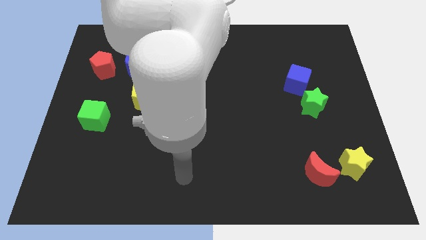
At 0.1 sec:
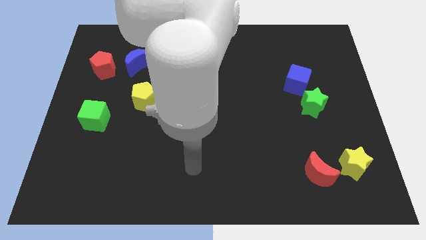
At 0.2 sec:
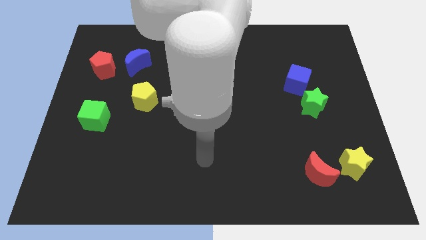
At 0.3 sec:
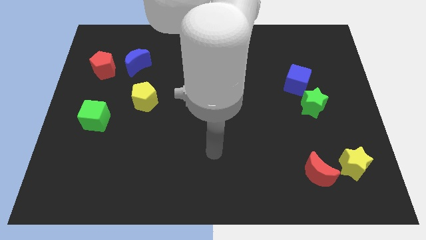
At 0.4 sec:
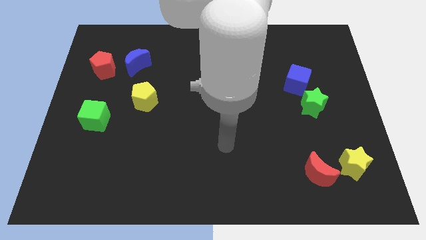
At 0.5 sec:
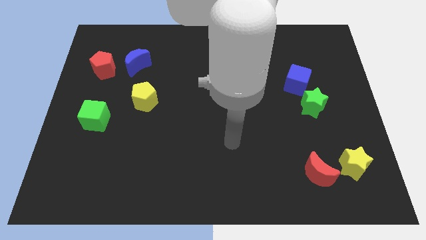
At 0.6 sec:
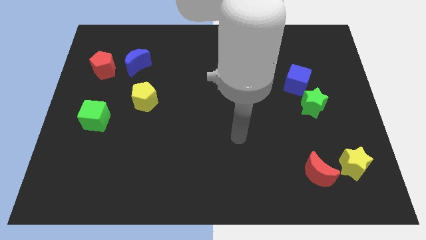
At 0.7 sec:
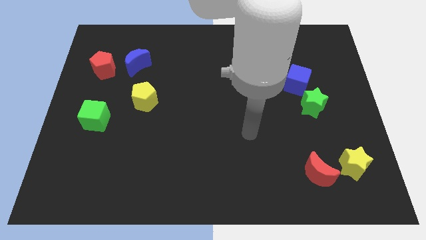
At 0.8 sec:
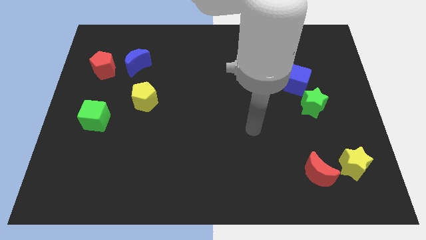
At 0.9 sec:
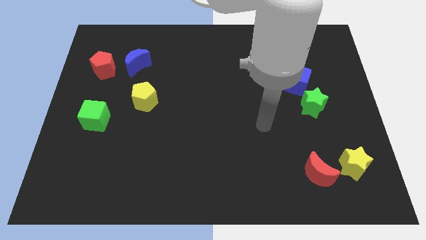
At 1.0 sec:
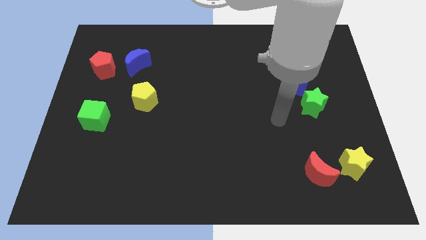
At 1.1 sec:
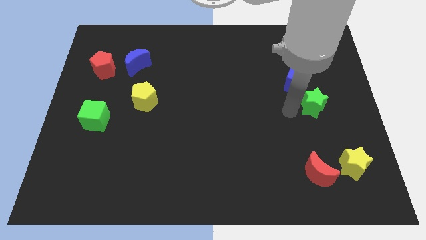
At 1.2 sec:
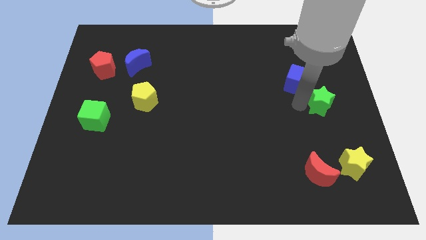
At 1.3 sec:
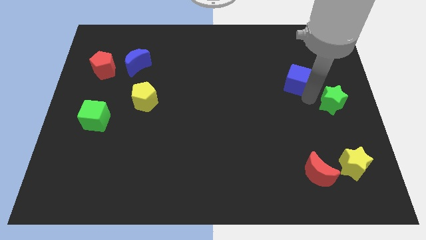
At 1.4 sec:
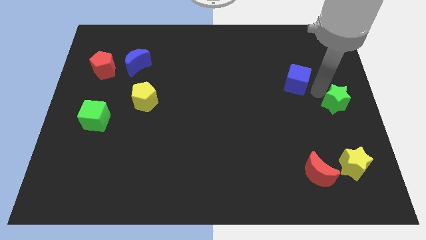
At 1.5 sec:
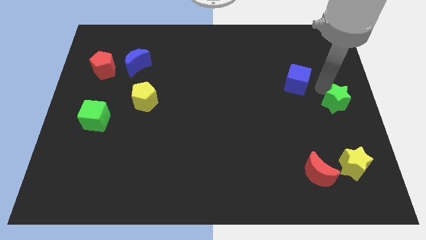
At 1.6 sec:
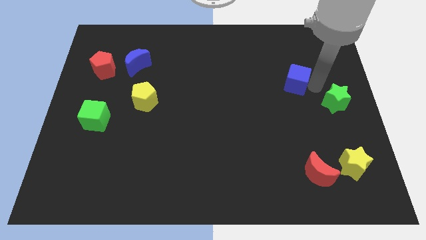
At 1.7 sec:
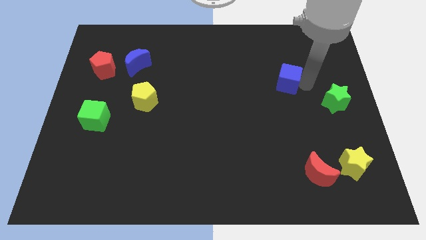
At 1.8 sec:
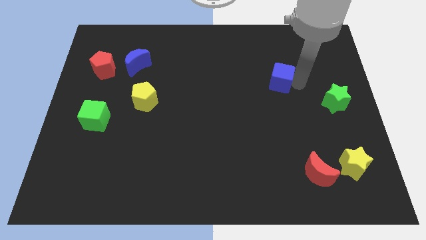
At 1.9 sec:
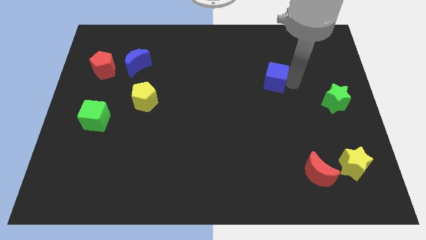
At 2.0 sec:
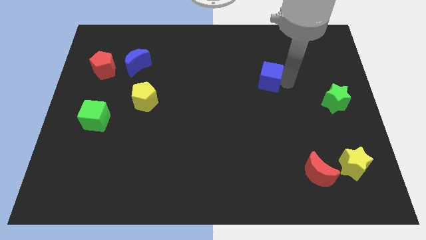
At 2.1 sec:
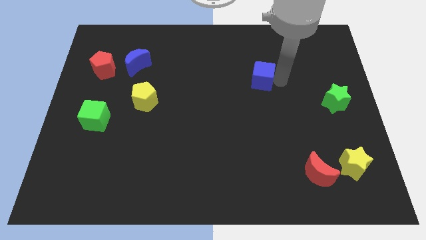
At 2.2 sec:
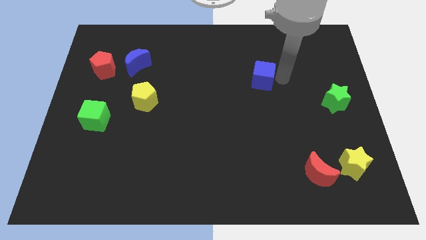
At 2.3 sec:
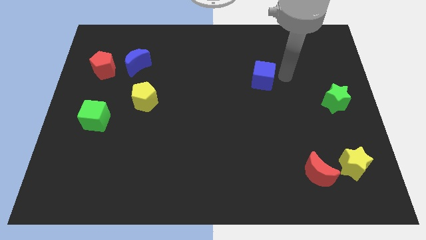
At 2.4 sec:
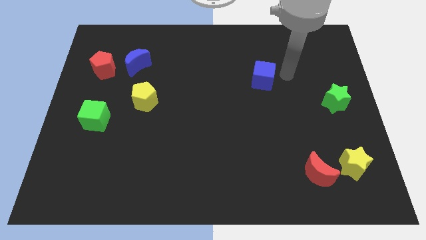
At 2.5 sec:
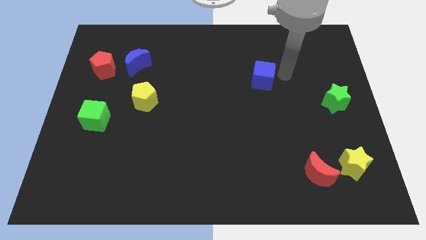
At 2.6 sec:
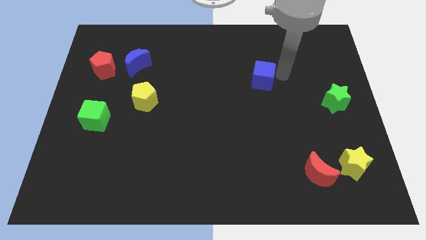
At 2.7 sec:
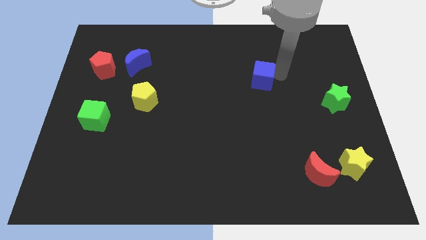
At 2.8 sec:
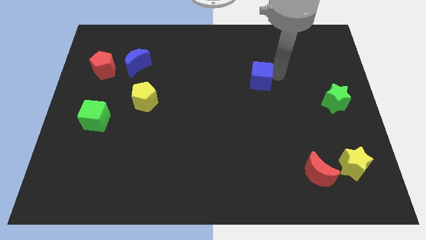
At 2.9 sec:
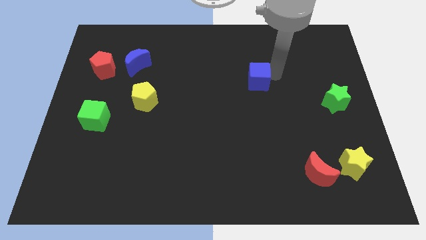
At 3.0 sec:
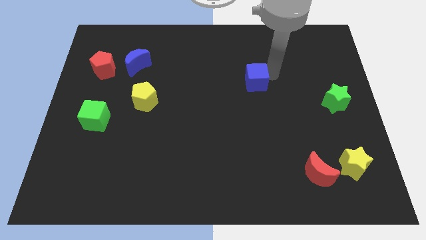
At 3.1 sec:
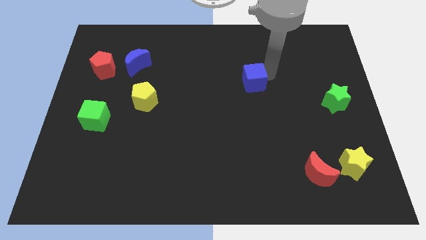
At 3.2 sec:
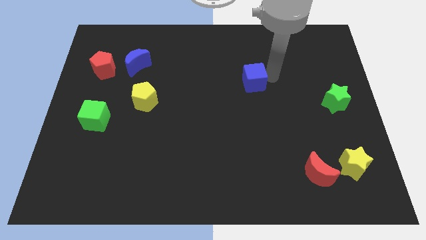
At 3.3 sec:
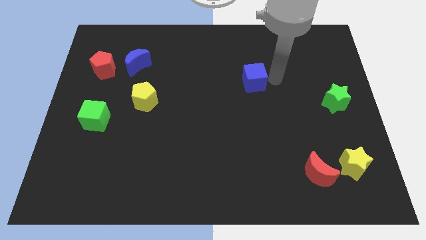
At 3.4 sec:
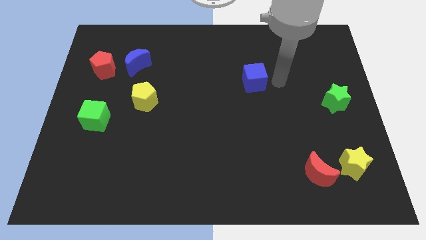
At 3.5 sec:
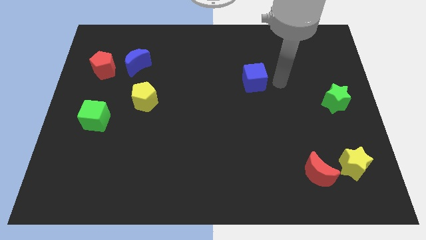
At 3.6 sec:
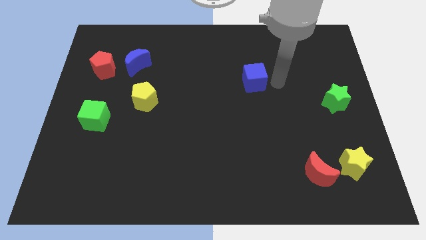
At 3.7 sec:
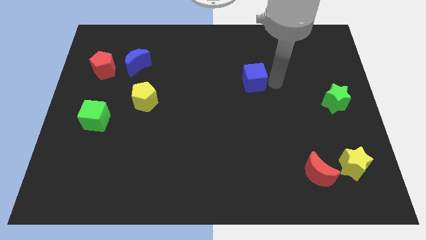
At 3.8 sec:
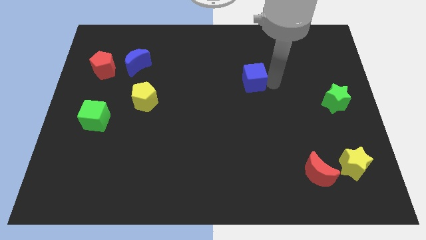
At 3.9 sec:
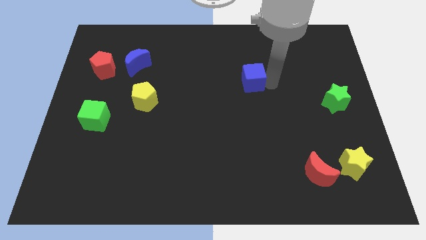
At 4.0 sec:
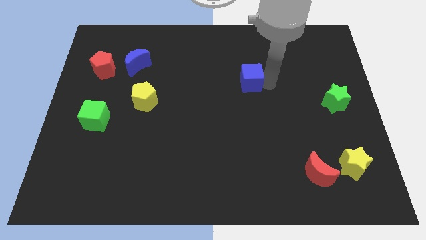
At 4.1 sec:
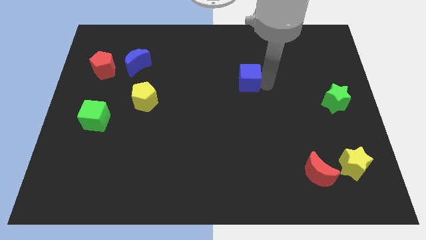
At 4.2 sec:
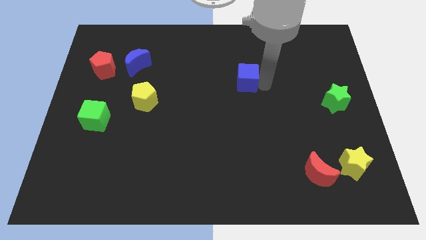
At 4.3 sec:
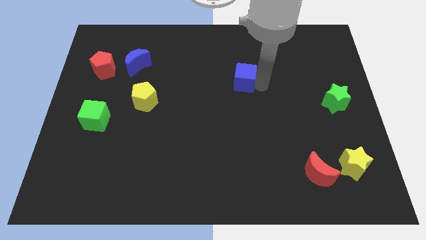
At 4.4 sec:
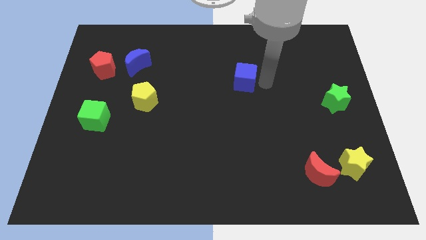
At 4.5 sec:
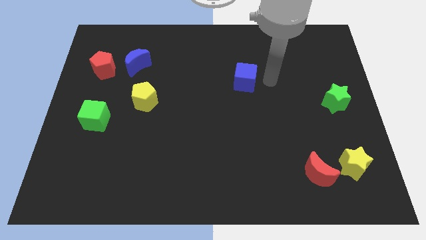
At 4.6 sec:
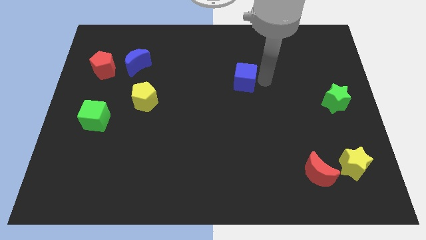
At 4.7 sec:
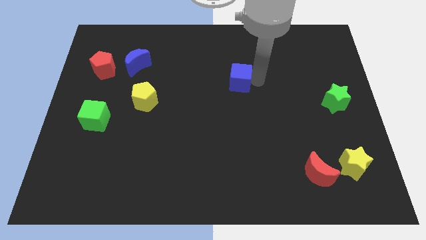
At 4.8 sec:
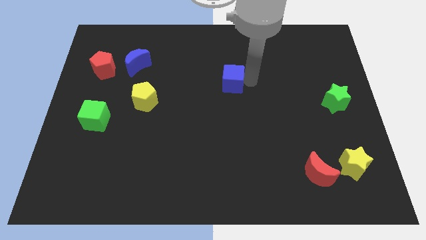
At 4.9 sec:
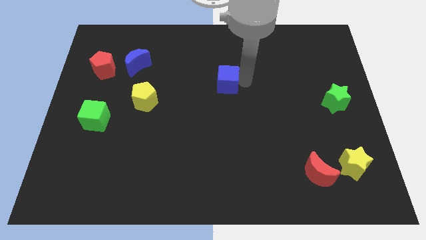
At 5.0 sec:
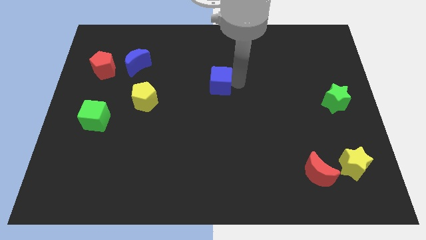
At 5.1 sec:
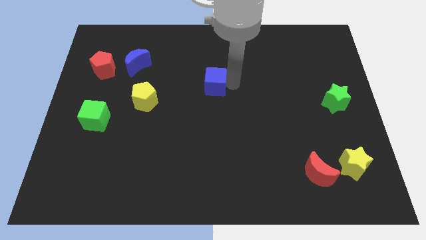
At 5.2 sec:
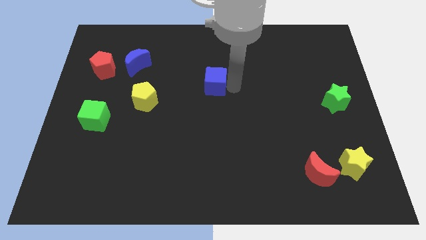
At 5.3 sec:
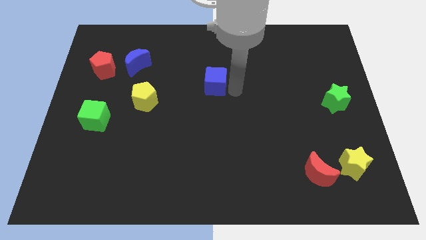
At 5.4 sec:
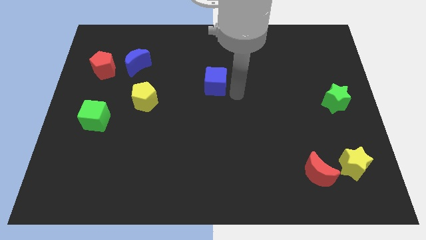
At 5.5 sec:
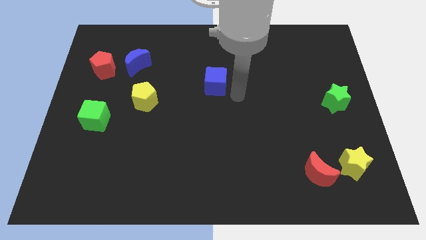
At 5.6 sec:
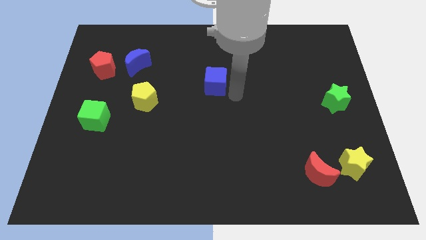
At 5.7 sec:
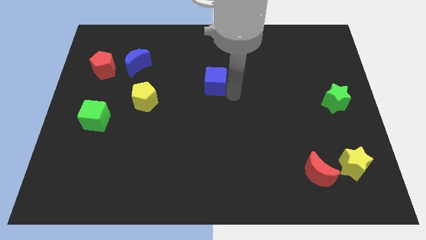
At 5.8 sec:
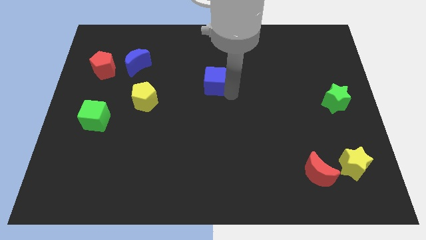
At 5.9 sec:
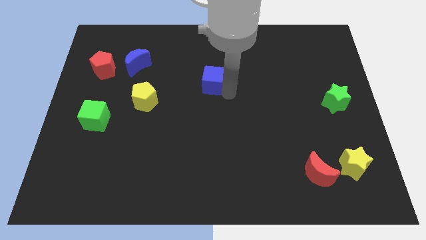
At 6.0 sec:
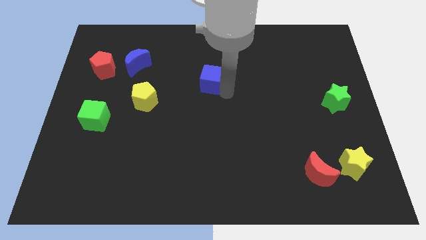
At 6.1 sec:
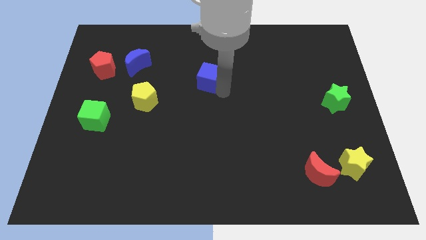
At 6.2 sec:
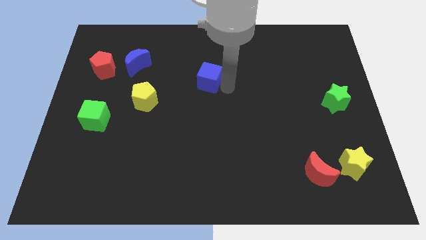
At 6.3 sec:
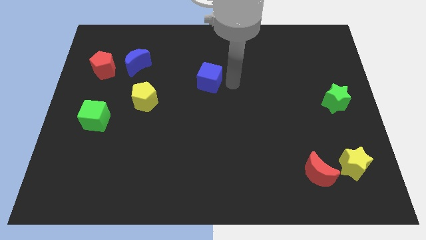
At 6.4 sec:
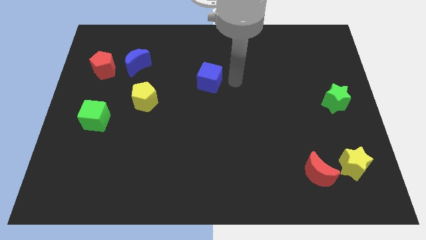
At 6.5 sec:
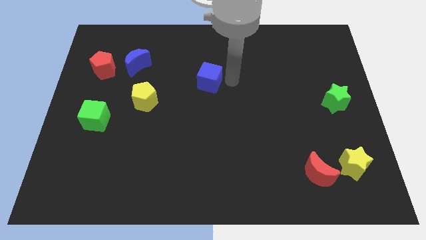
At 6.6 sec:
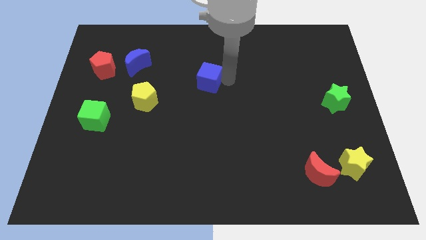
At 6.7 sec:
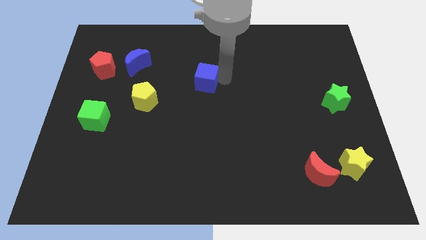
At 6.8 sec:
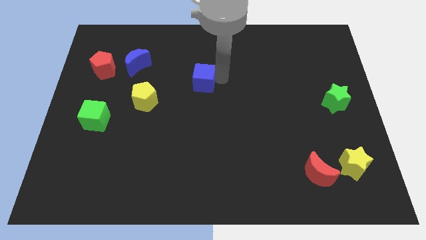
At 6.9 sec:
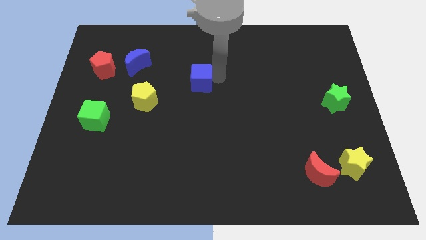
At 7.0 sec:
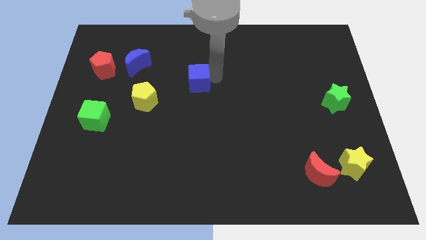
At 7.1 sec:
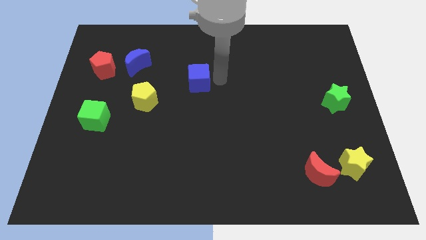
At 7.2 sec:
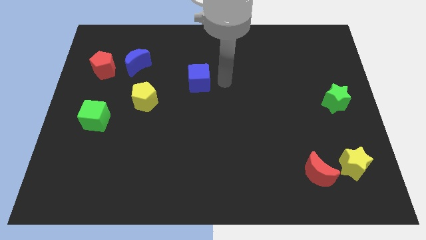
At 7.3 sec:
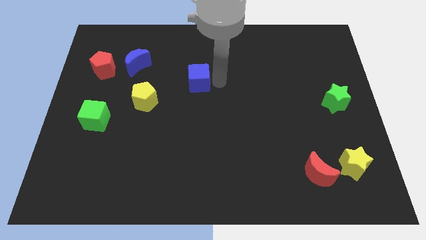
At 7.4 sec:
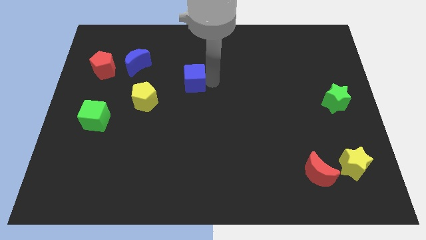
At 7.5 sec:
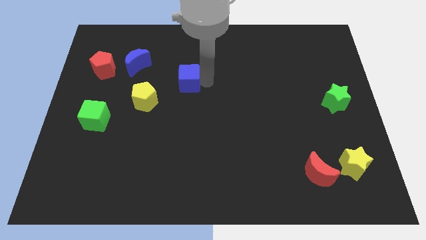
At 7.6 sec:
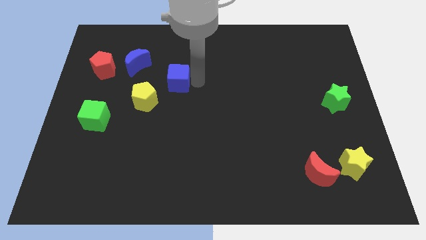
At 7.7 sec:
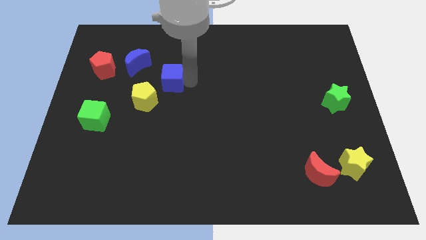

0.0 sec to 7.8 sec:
push the blue cube diagonally down and to the right of the blue moon

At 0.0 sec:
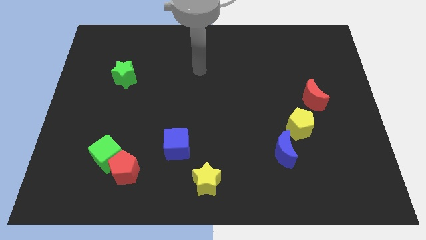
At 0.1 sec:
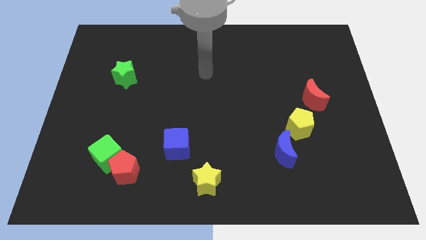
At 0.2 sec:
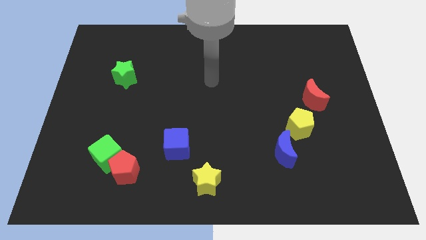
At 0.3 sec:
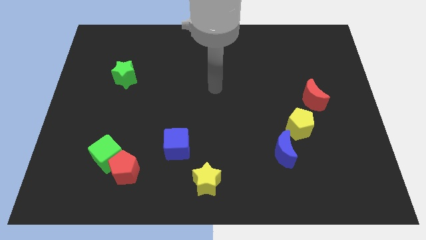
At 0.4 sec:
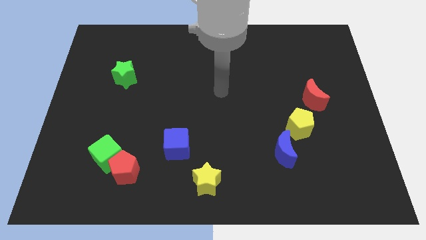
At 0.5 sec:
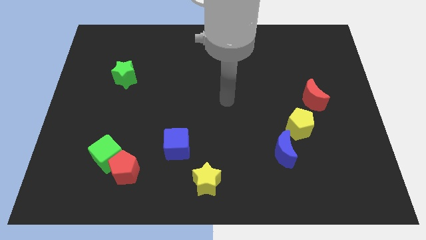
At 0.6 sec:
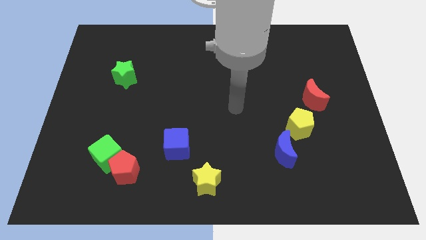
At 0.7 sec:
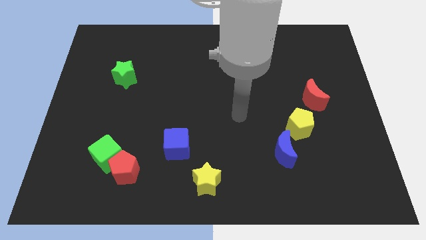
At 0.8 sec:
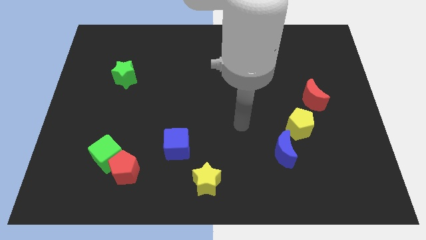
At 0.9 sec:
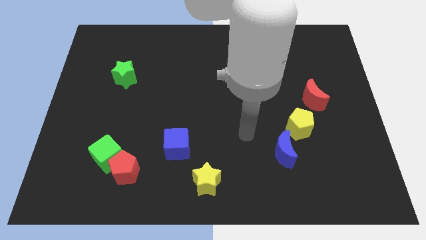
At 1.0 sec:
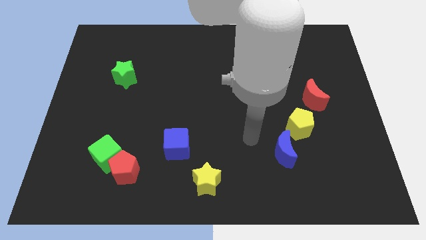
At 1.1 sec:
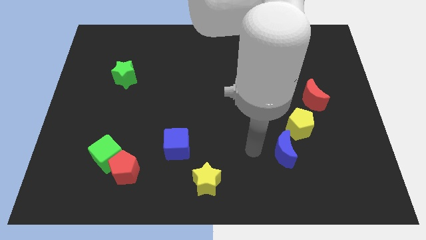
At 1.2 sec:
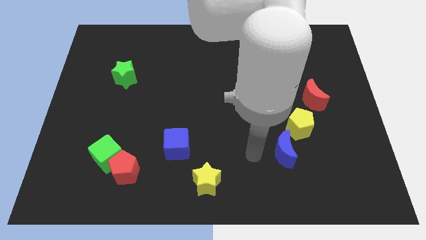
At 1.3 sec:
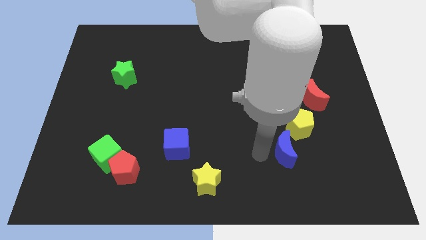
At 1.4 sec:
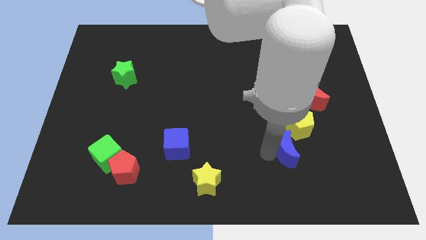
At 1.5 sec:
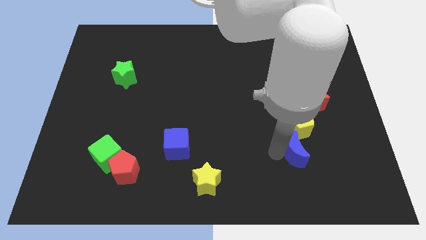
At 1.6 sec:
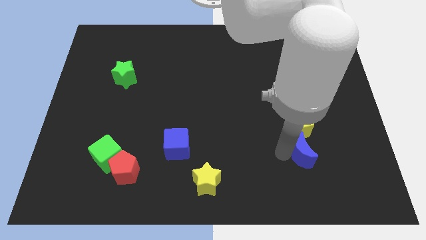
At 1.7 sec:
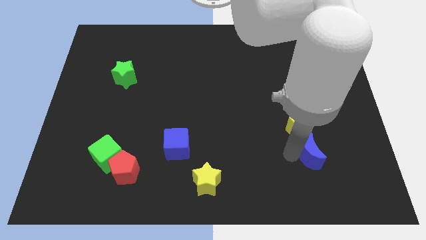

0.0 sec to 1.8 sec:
put the blue moon to the bottom right of the yellow pentagon
